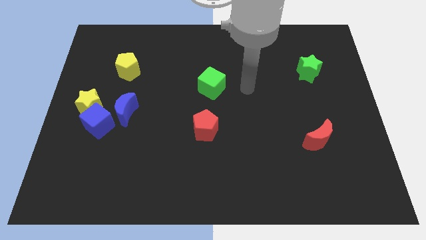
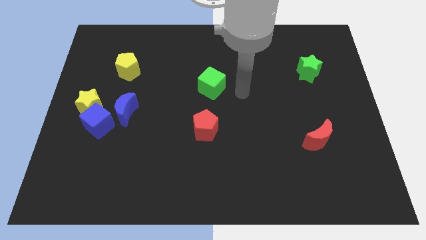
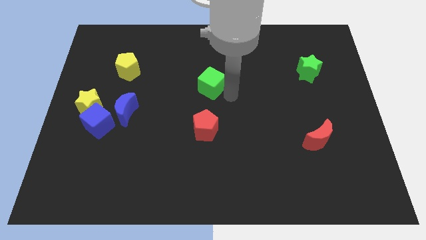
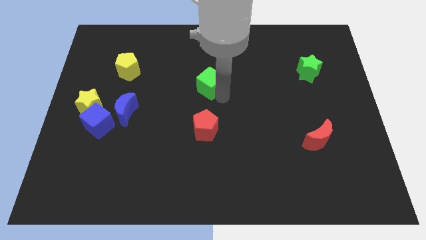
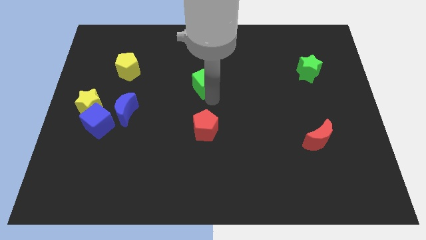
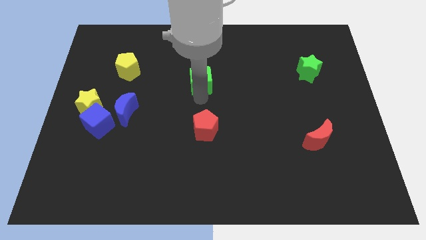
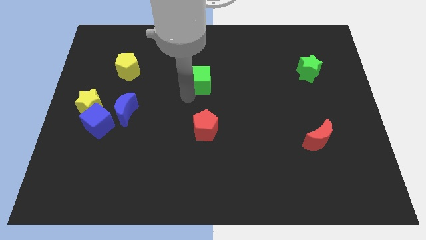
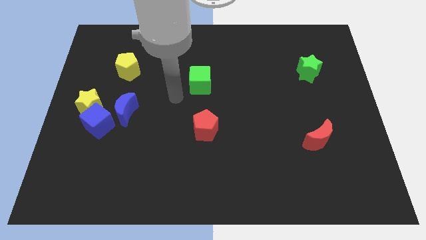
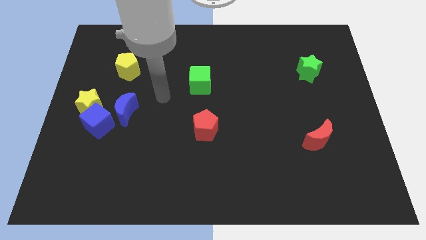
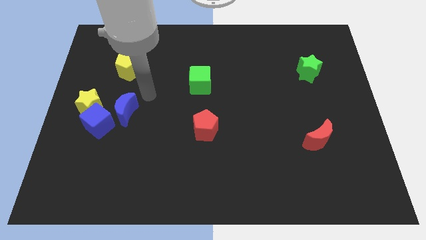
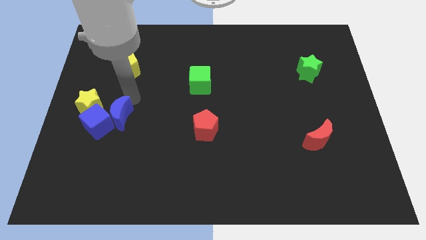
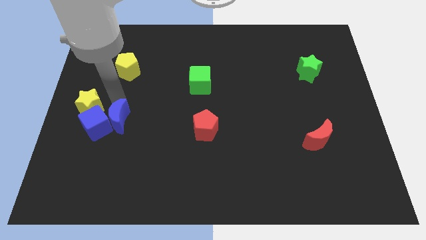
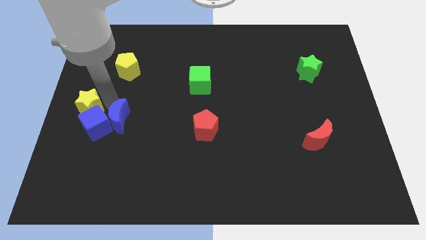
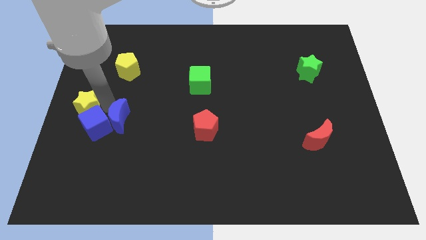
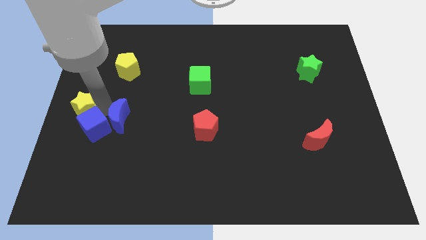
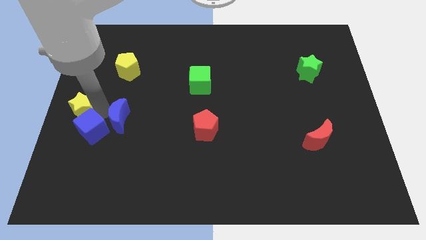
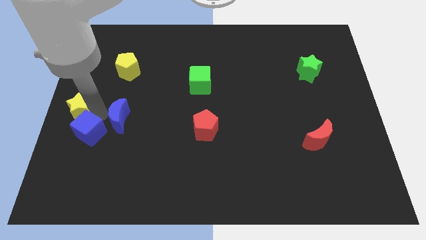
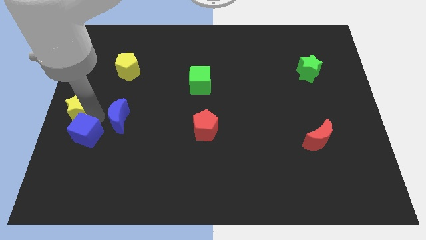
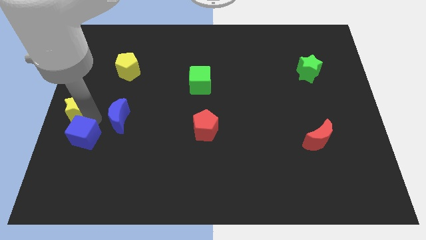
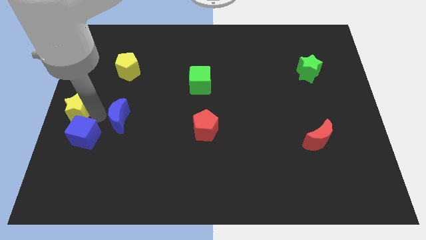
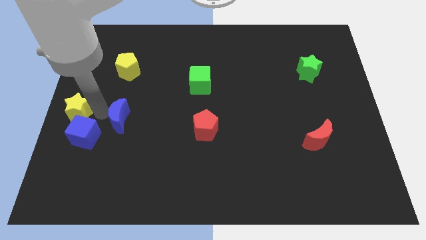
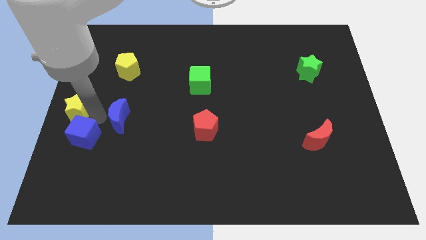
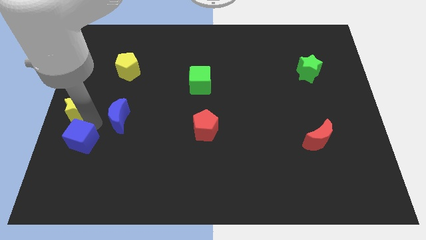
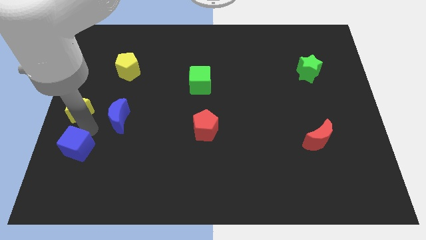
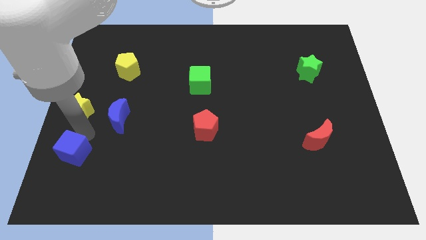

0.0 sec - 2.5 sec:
pull the blue cube apart from the yellow star and blue moon

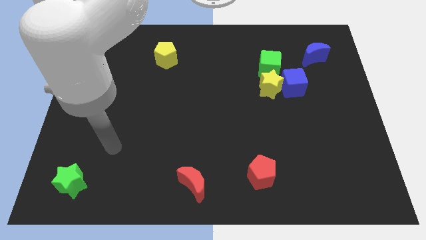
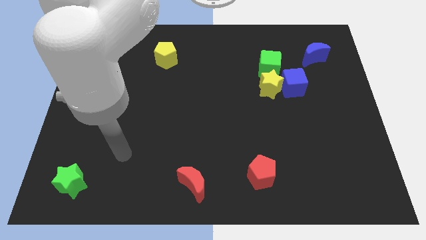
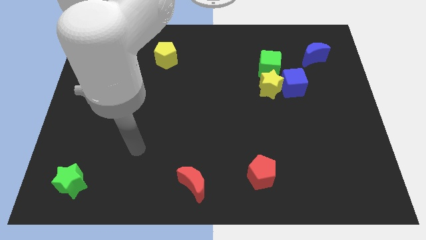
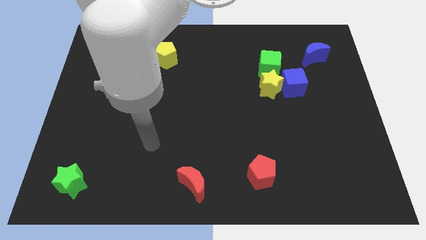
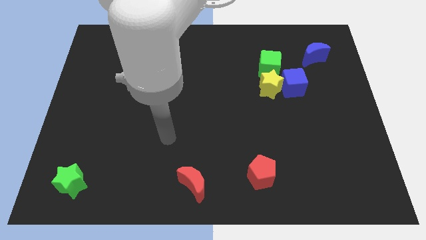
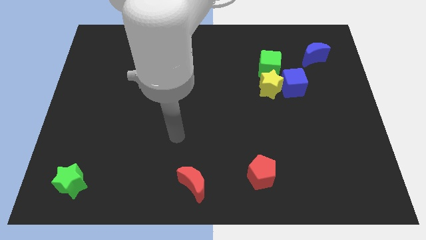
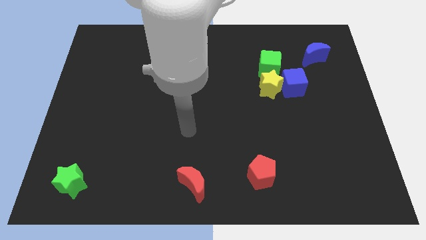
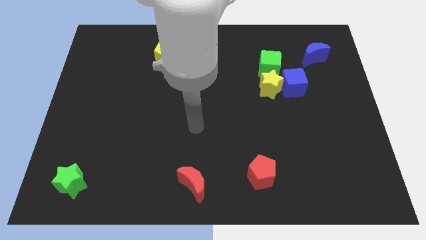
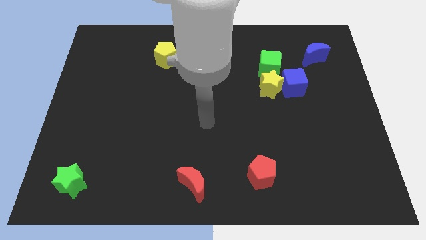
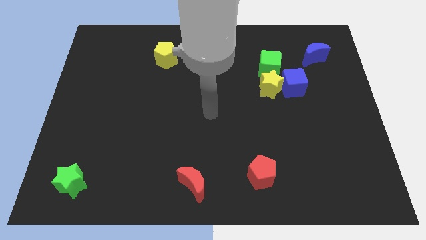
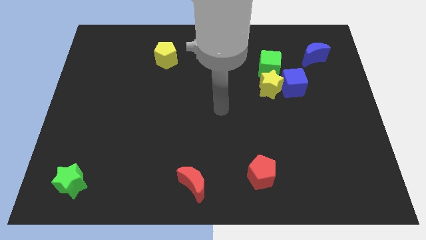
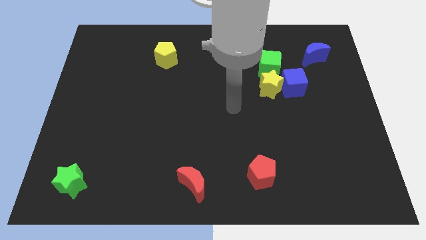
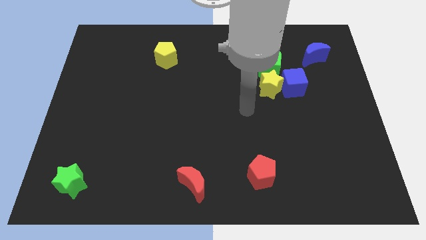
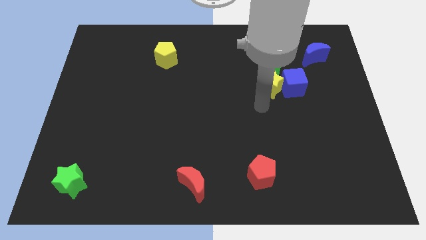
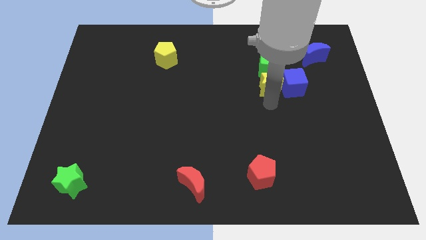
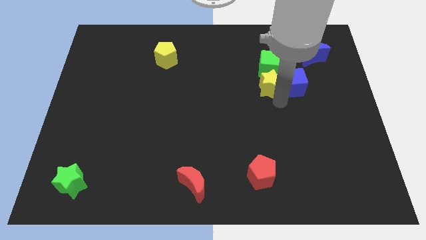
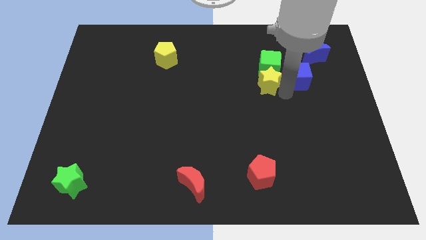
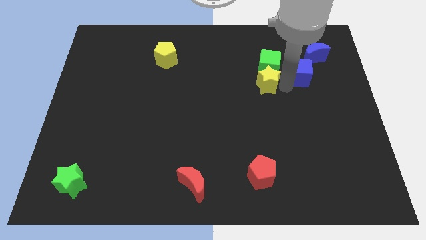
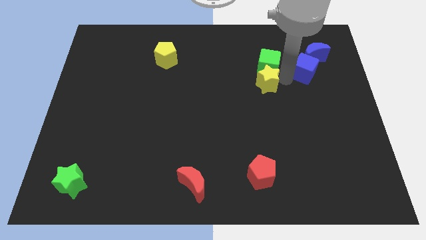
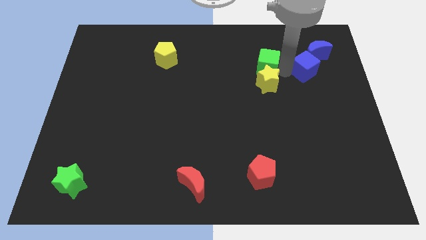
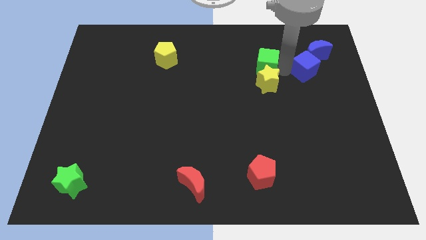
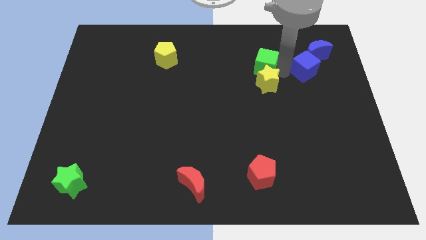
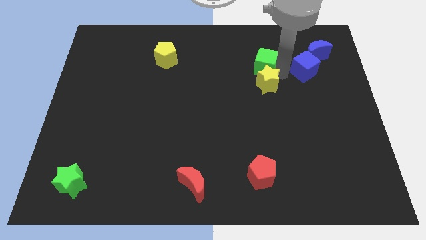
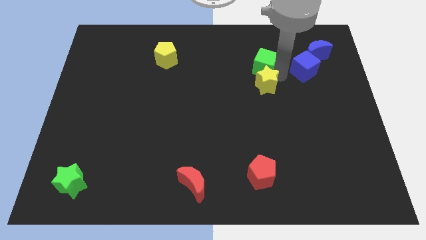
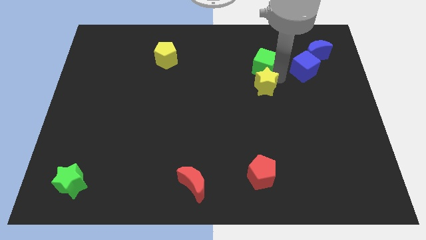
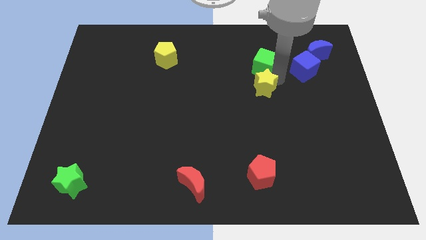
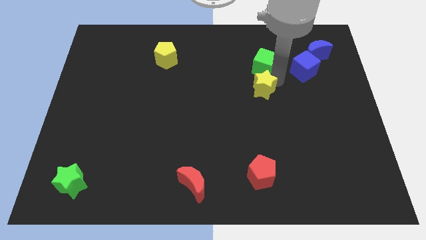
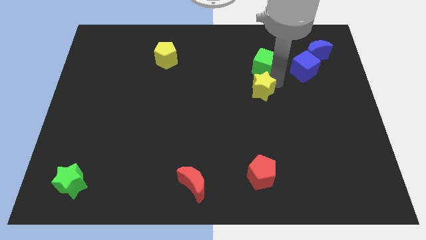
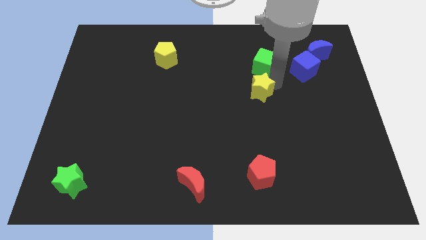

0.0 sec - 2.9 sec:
move the yellow star away from the blue cube and green cube

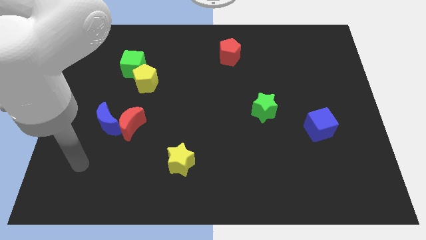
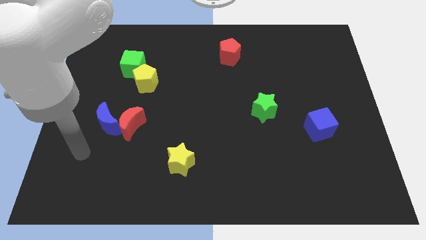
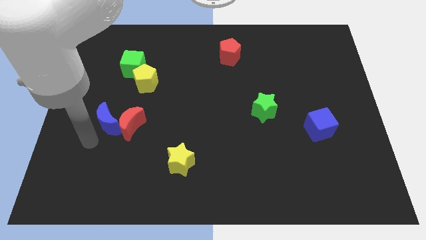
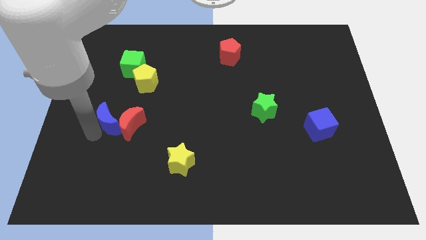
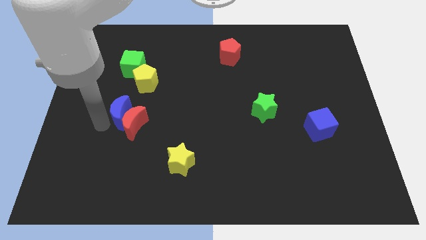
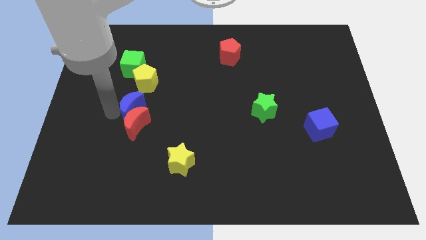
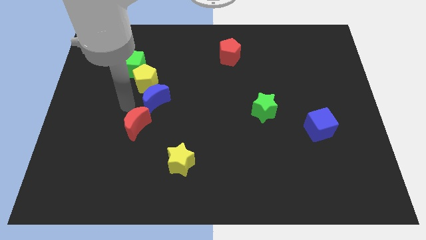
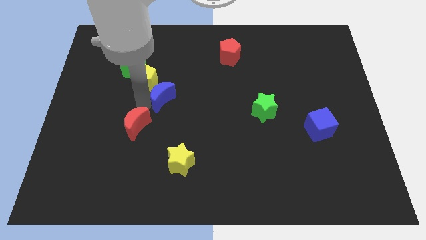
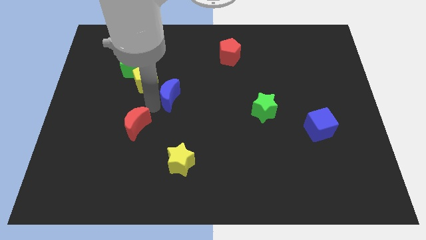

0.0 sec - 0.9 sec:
pull the red moon apart from the blue moon

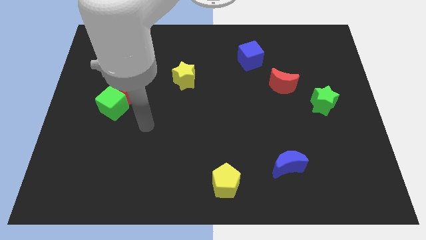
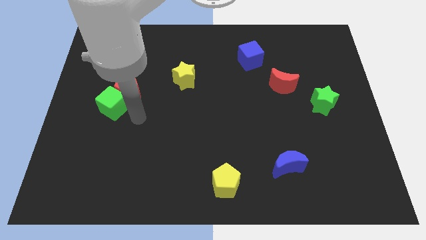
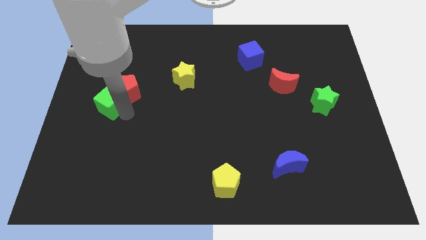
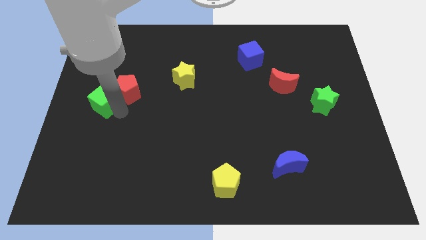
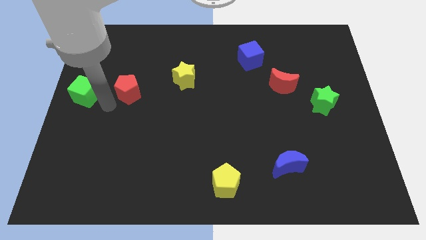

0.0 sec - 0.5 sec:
move the red pentagon away from the green cube

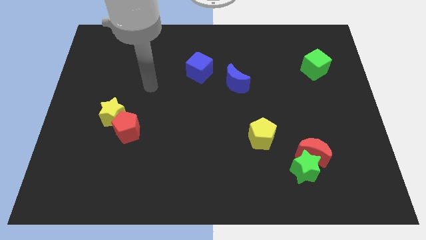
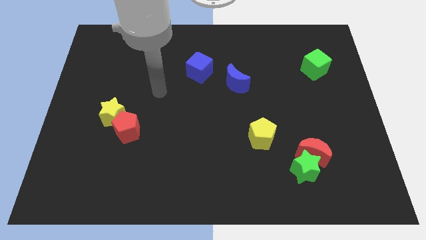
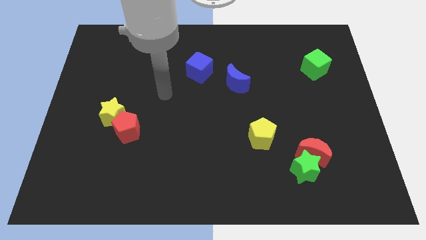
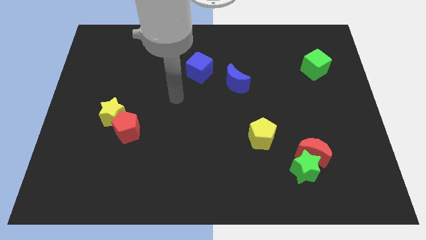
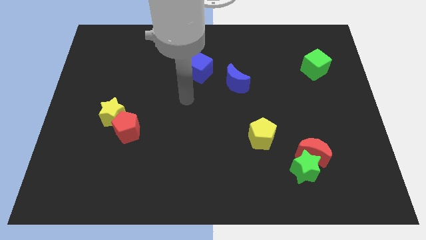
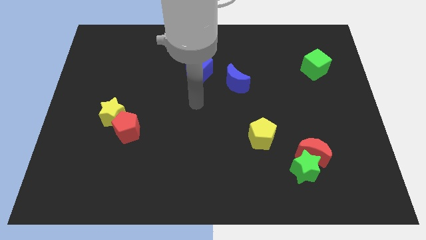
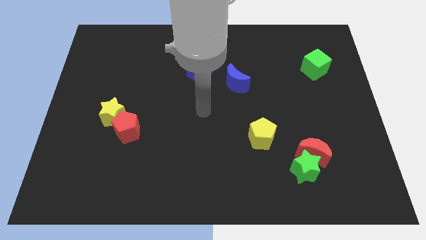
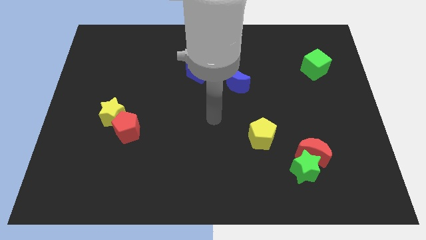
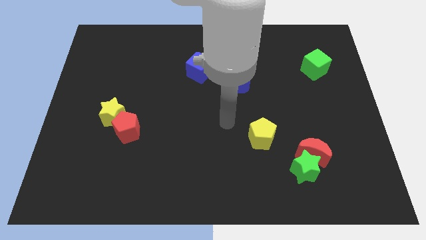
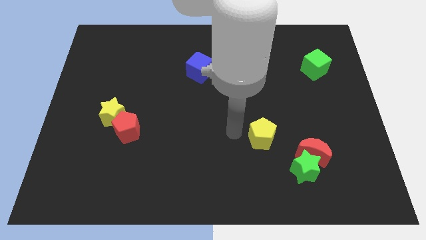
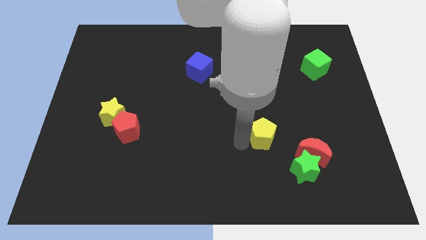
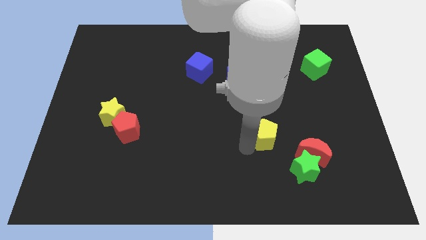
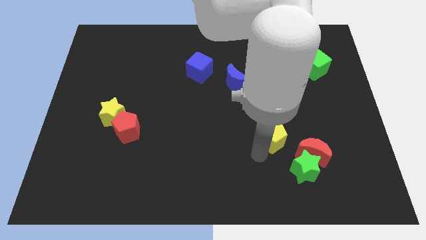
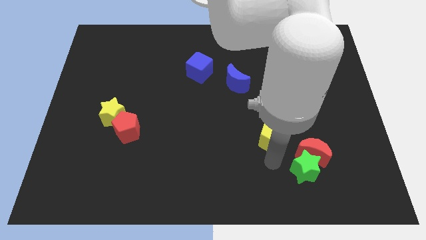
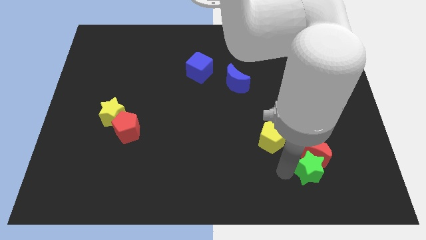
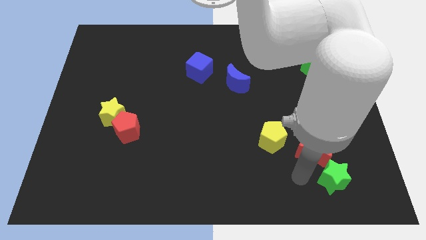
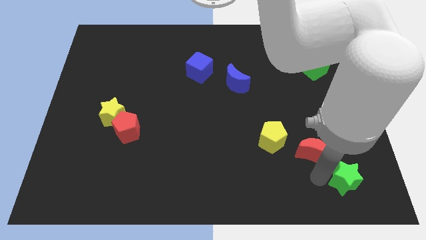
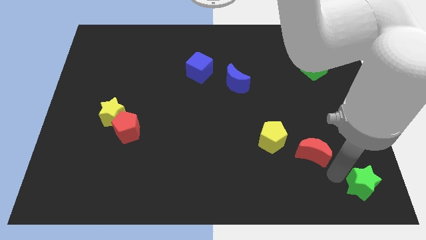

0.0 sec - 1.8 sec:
move the red moon away from the green star

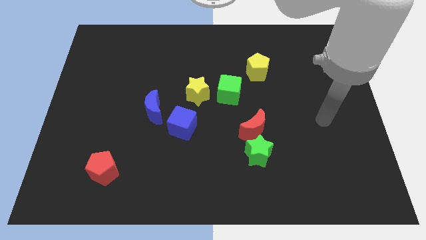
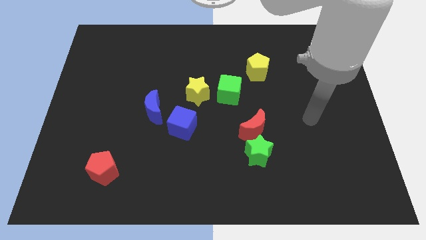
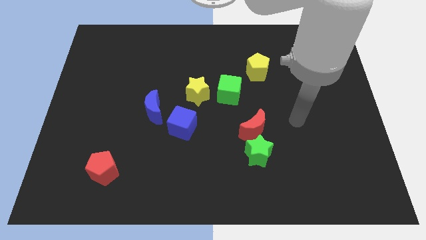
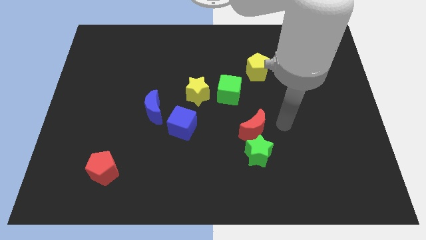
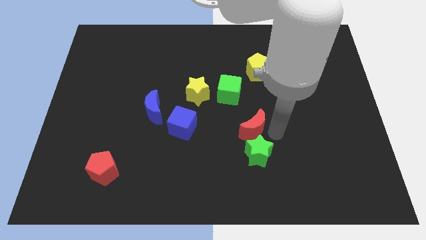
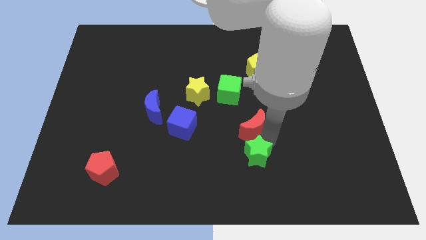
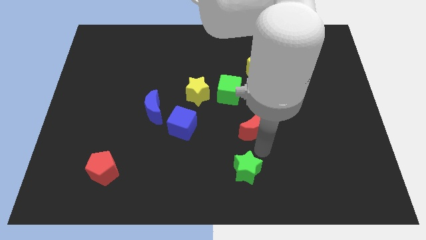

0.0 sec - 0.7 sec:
pull the red moon apart from the green star

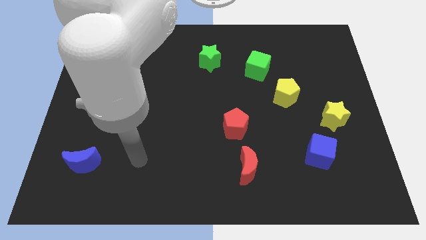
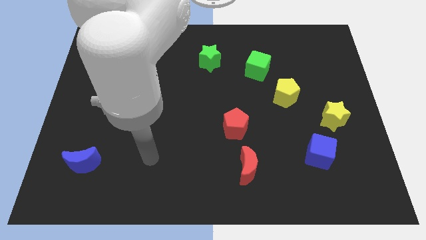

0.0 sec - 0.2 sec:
pull the blue cube apart from the yellow star
